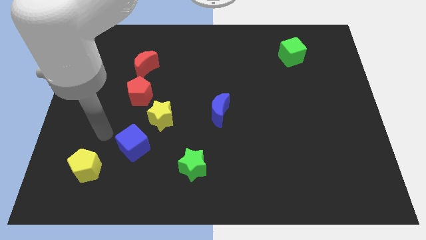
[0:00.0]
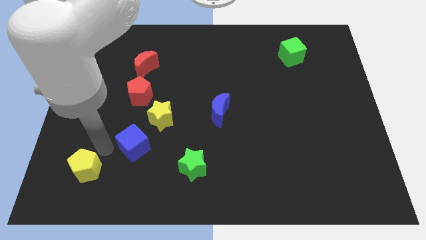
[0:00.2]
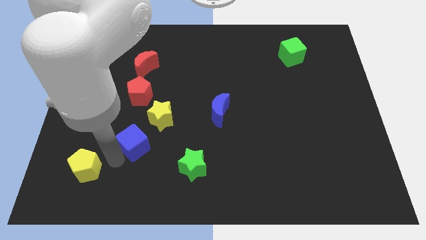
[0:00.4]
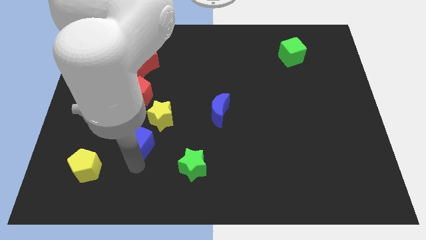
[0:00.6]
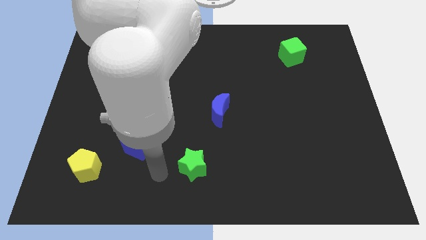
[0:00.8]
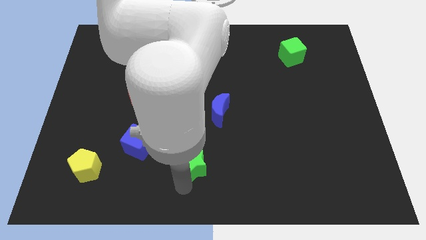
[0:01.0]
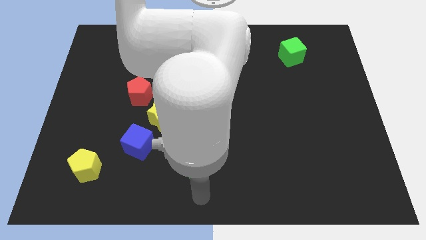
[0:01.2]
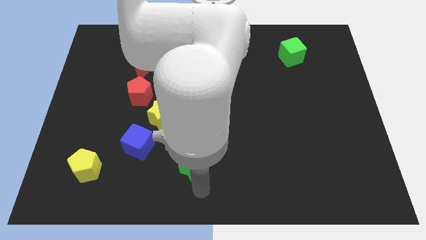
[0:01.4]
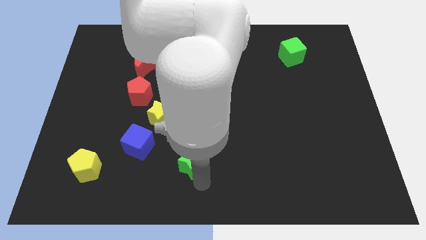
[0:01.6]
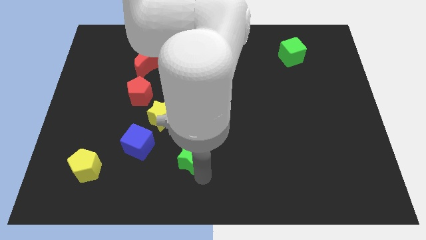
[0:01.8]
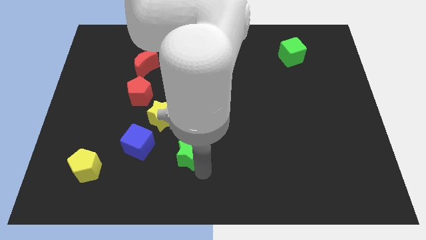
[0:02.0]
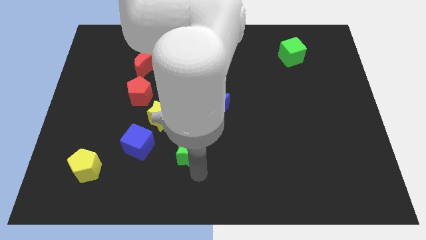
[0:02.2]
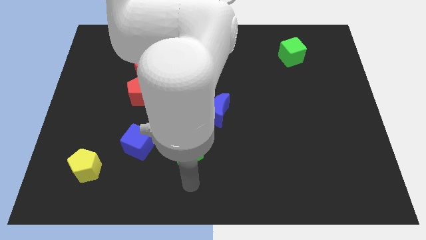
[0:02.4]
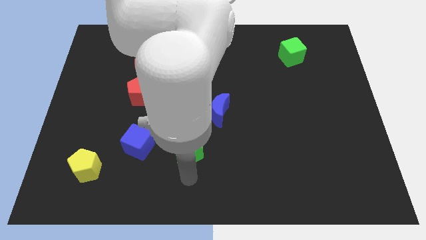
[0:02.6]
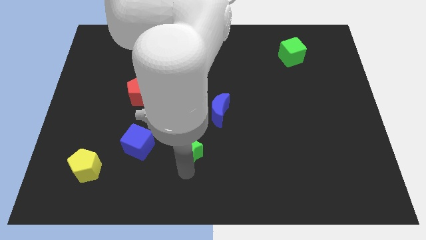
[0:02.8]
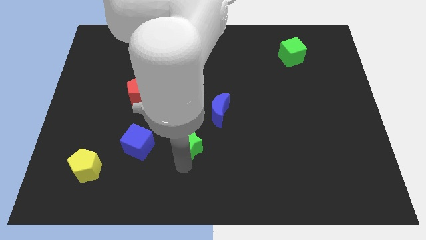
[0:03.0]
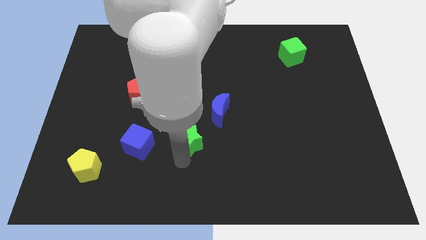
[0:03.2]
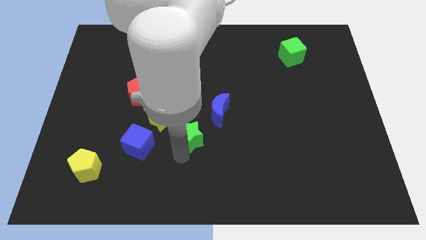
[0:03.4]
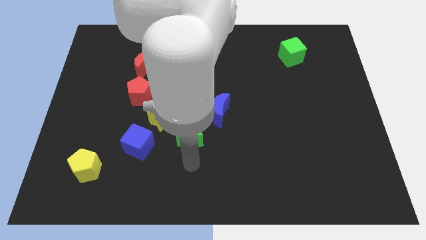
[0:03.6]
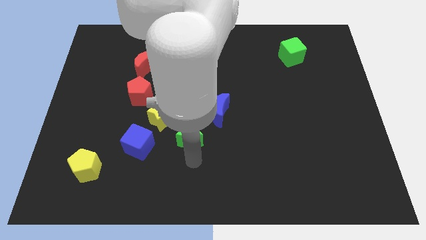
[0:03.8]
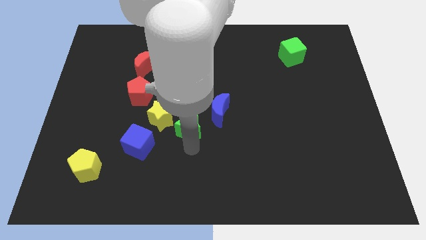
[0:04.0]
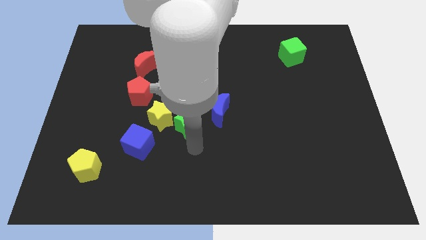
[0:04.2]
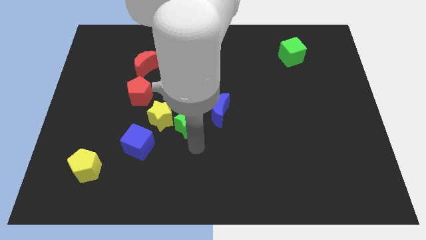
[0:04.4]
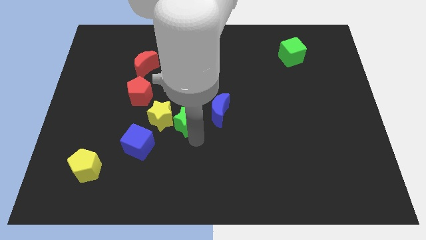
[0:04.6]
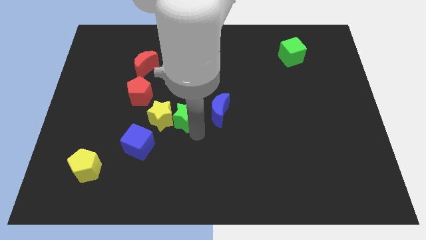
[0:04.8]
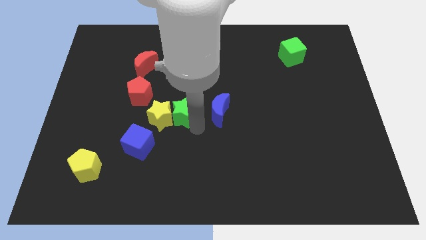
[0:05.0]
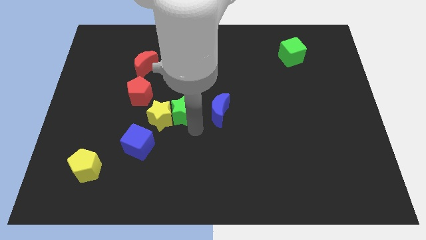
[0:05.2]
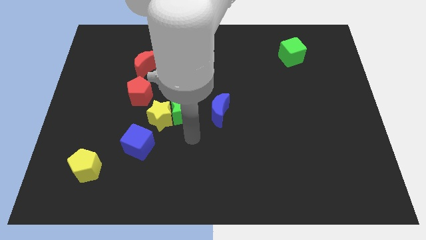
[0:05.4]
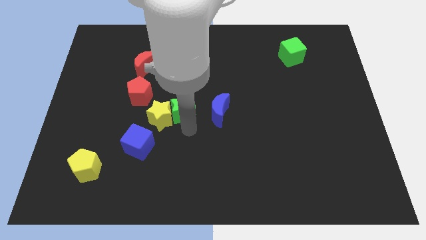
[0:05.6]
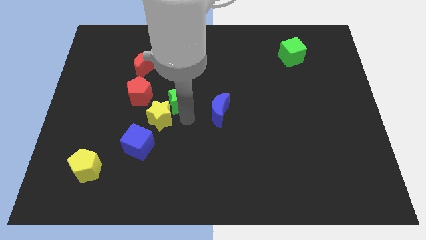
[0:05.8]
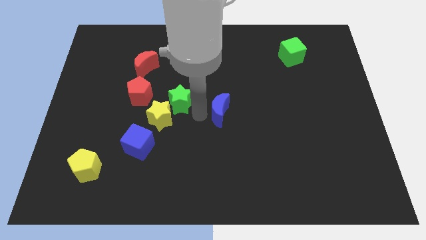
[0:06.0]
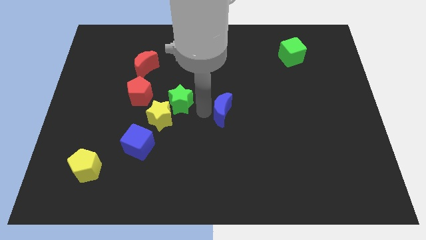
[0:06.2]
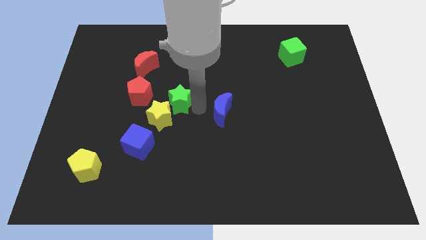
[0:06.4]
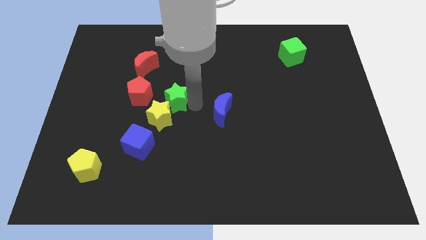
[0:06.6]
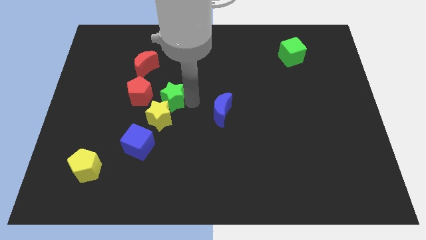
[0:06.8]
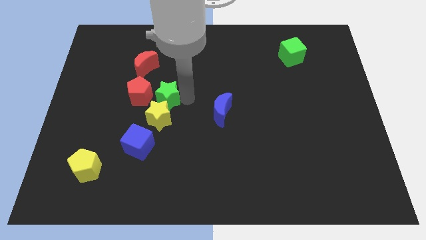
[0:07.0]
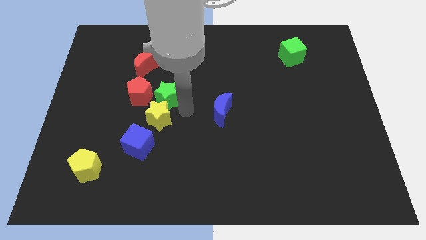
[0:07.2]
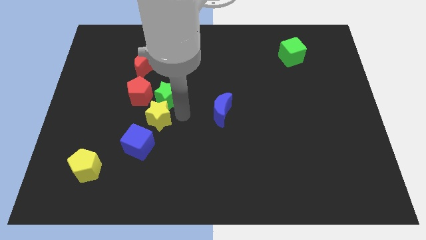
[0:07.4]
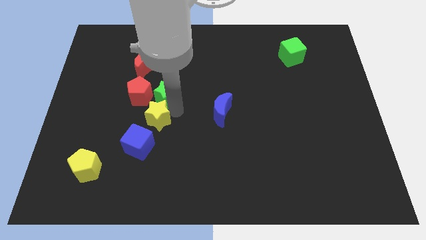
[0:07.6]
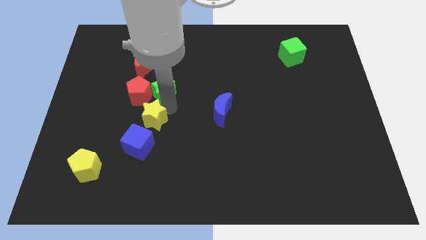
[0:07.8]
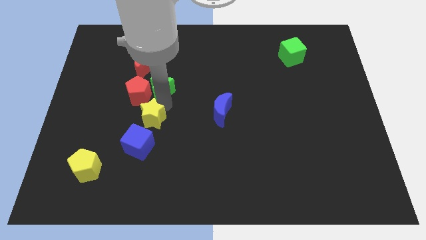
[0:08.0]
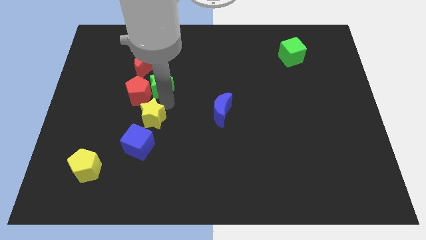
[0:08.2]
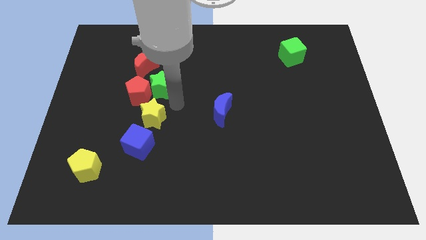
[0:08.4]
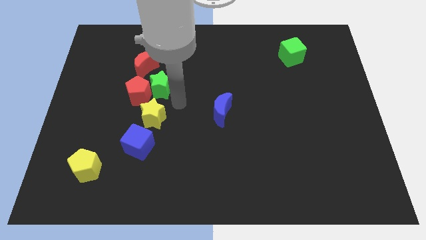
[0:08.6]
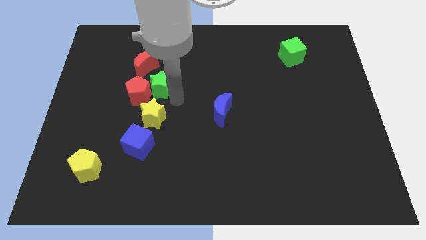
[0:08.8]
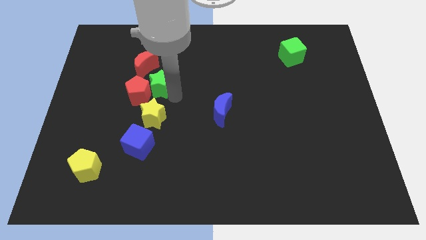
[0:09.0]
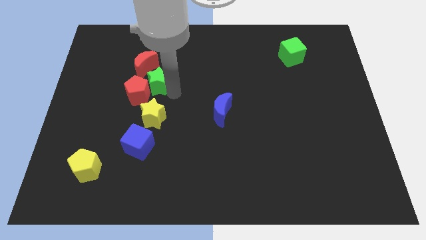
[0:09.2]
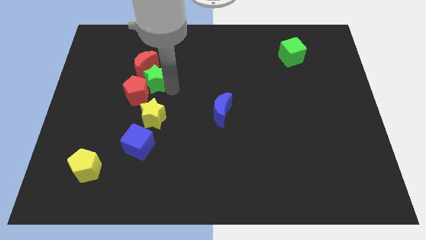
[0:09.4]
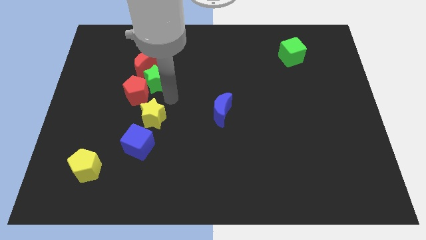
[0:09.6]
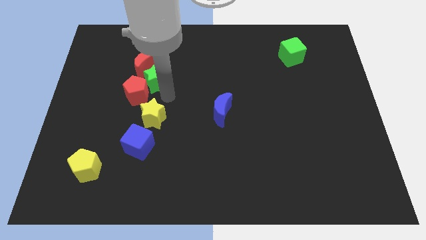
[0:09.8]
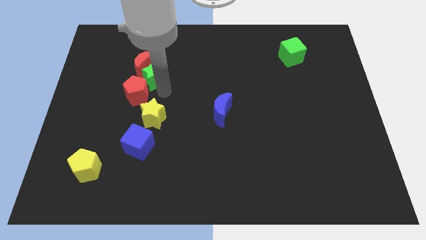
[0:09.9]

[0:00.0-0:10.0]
move the green star to the red moon

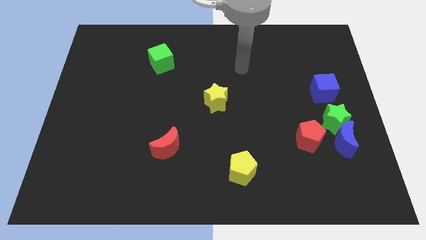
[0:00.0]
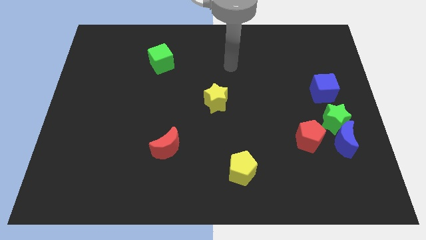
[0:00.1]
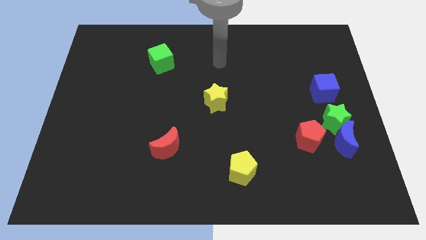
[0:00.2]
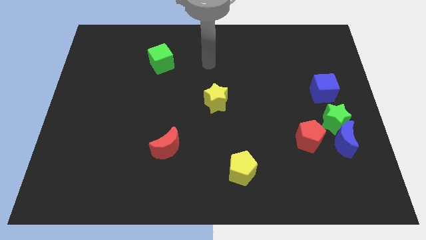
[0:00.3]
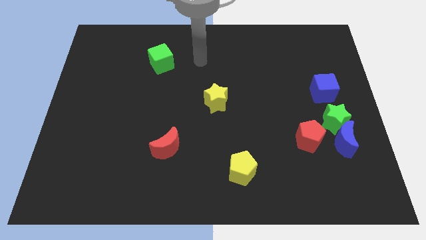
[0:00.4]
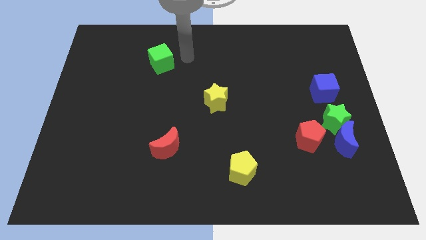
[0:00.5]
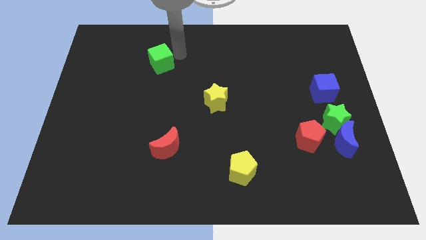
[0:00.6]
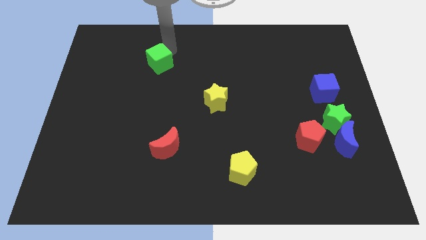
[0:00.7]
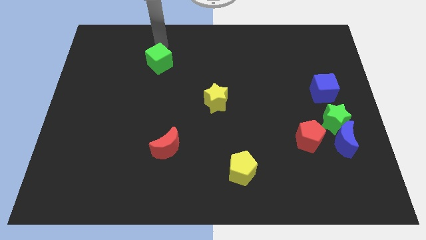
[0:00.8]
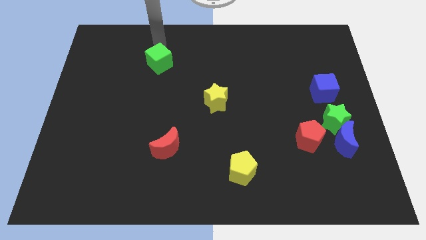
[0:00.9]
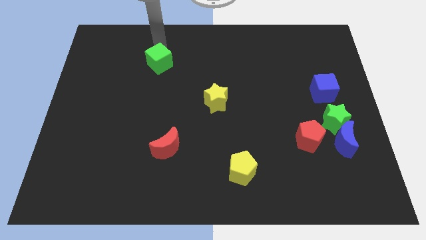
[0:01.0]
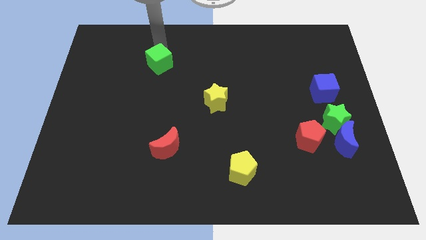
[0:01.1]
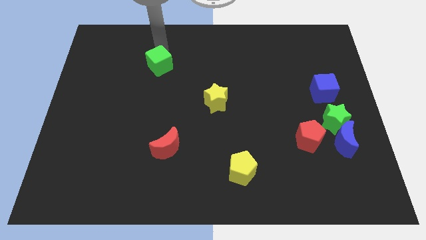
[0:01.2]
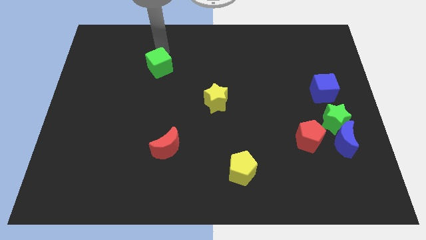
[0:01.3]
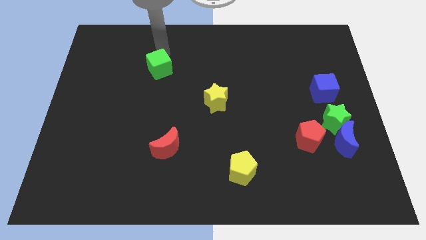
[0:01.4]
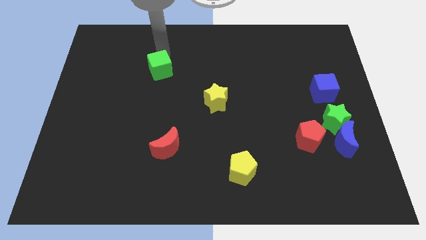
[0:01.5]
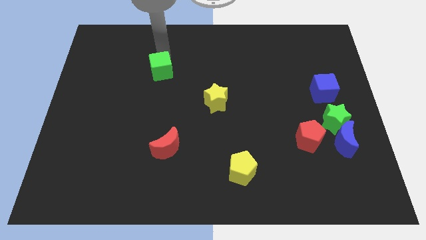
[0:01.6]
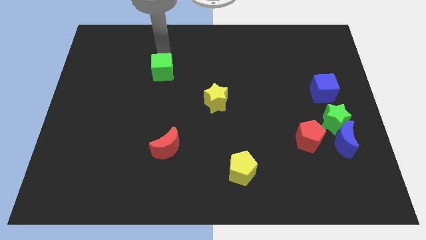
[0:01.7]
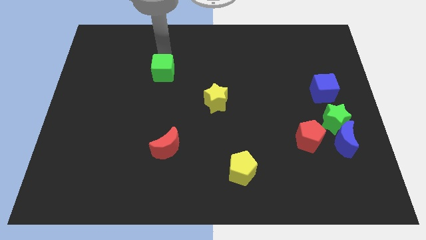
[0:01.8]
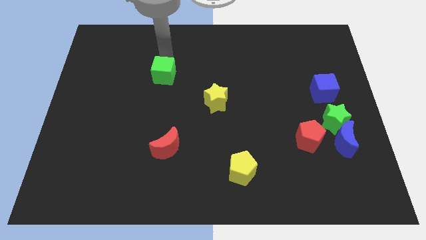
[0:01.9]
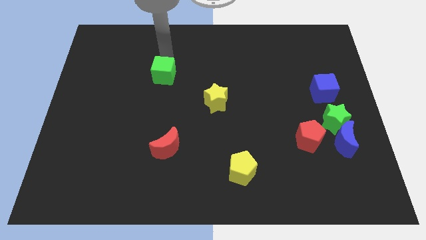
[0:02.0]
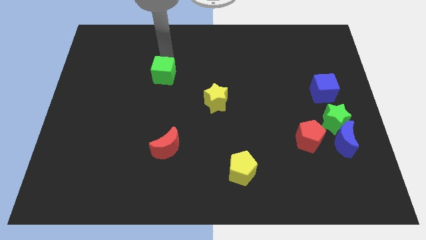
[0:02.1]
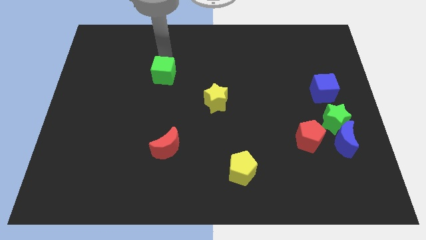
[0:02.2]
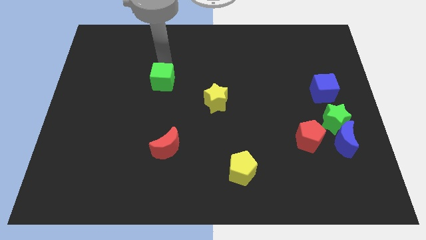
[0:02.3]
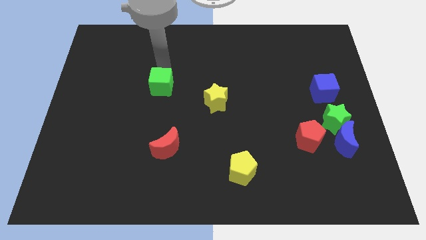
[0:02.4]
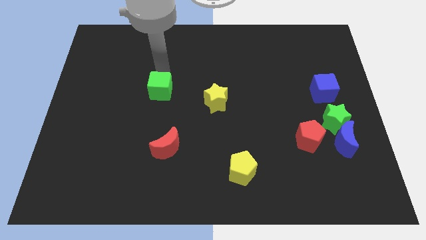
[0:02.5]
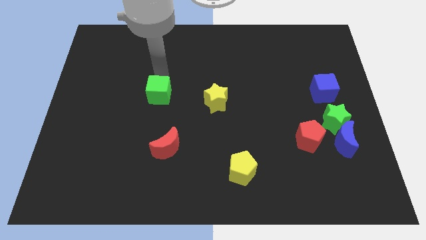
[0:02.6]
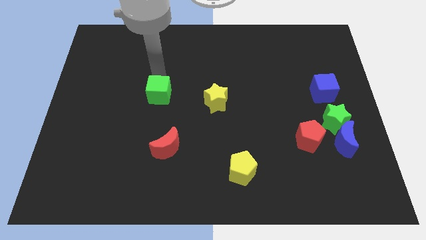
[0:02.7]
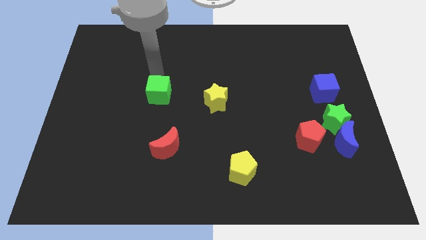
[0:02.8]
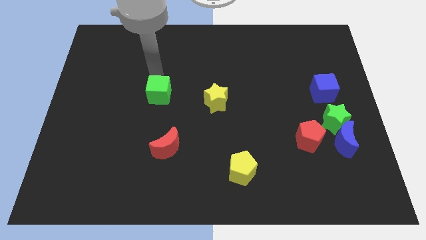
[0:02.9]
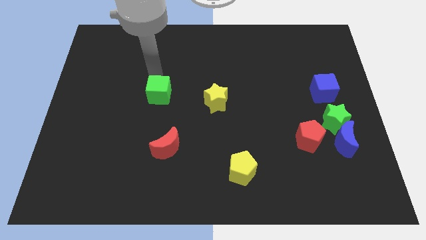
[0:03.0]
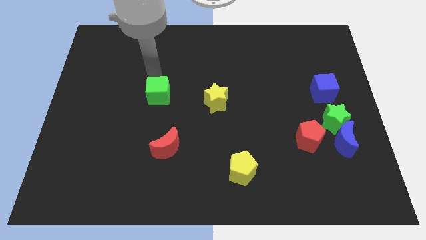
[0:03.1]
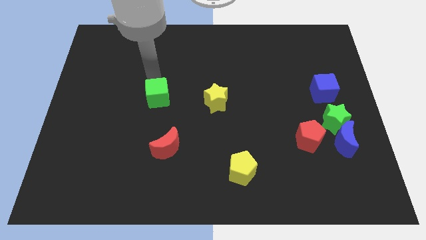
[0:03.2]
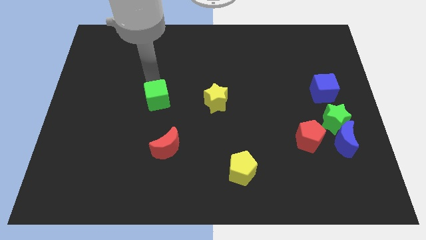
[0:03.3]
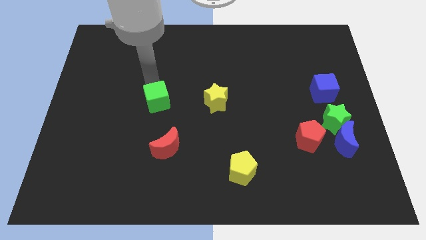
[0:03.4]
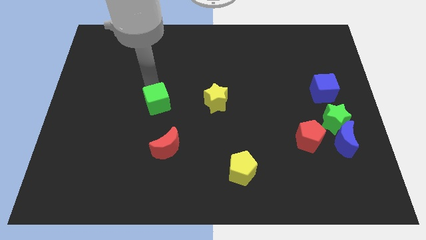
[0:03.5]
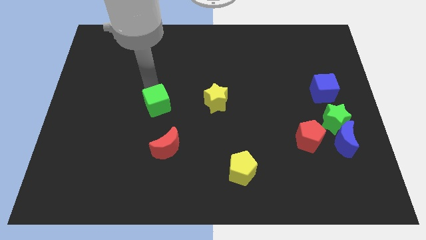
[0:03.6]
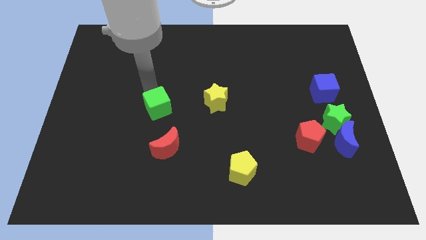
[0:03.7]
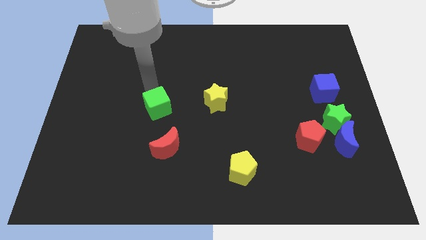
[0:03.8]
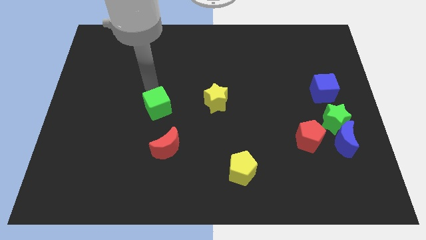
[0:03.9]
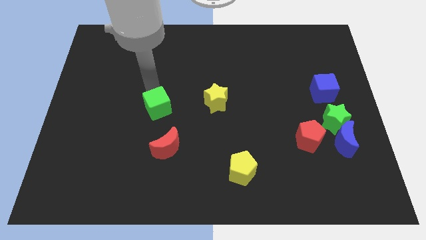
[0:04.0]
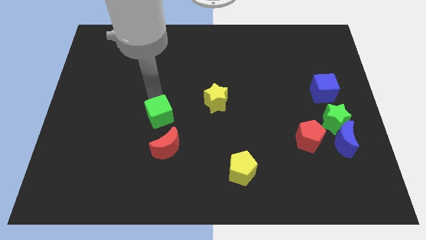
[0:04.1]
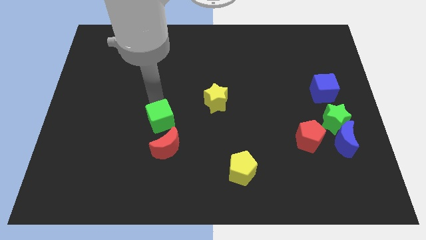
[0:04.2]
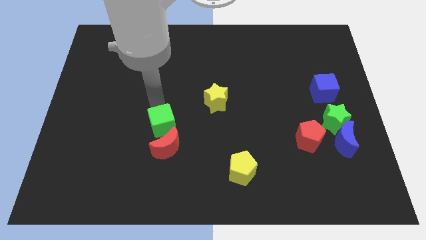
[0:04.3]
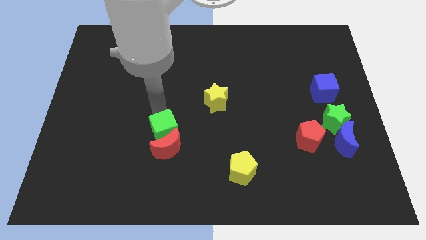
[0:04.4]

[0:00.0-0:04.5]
put the green cube to the red moon
